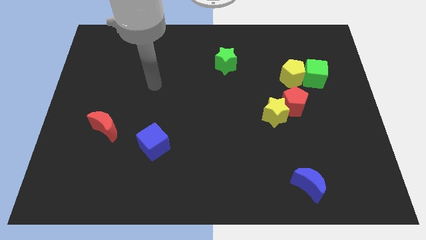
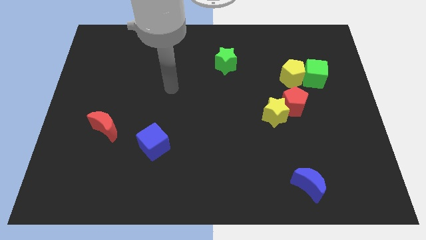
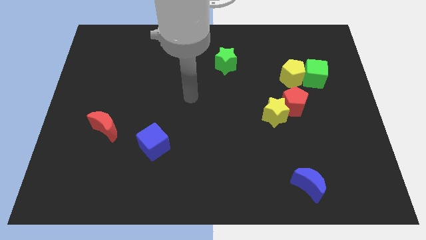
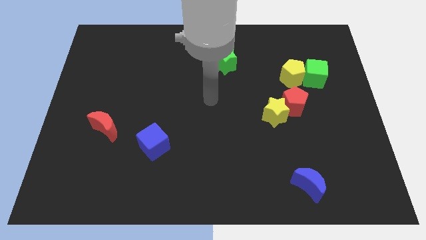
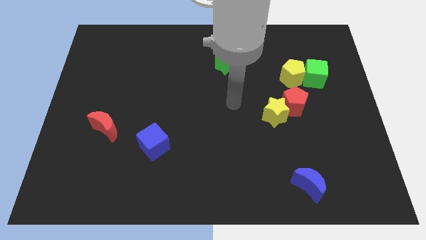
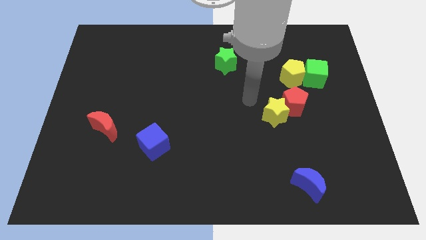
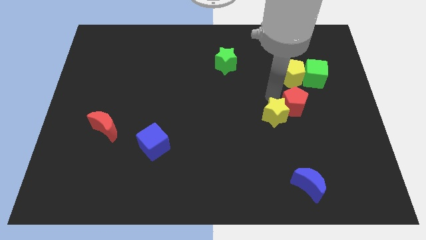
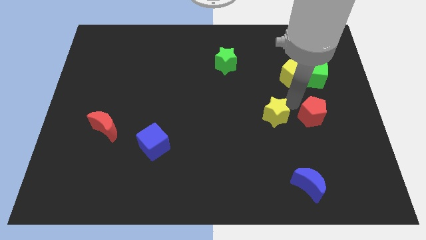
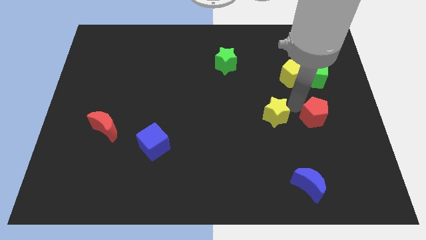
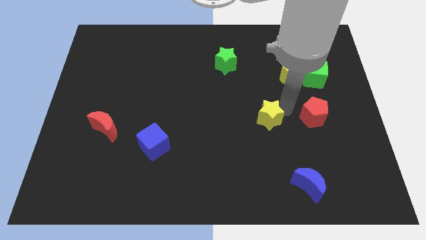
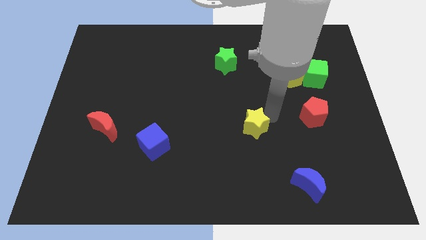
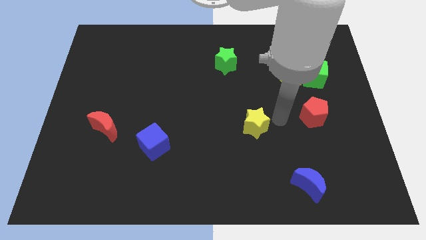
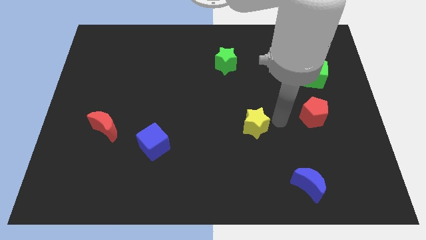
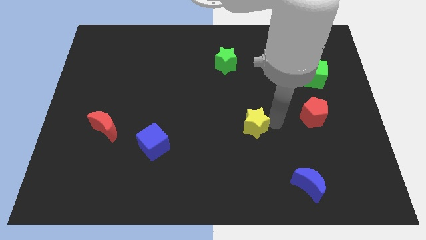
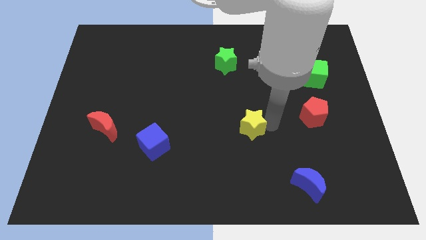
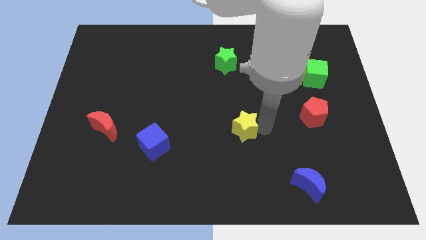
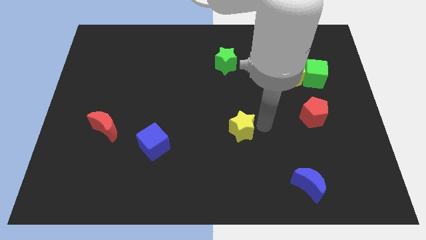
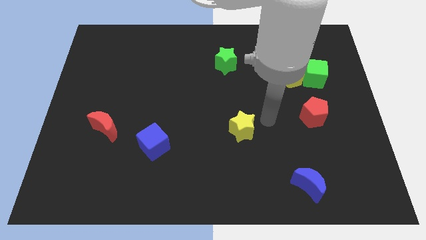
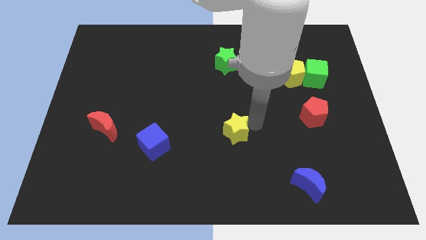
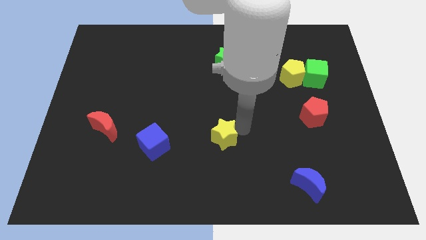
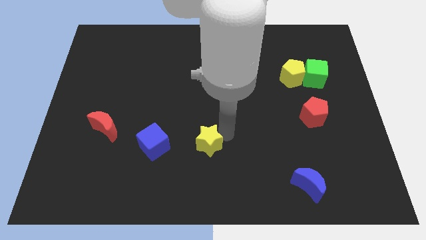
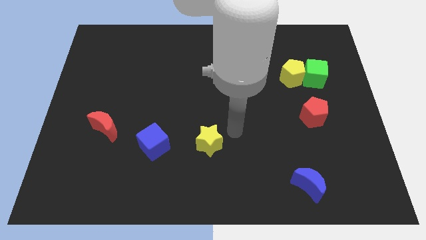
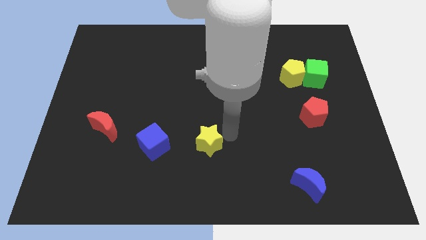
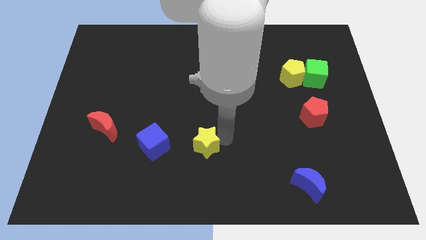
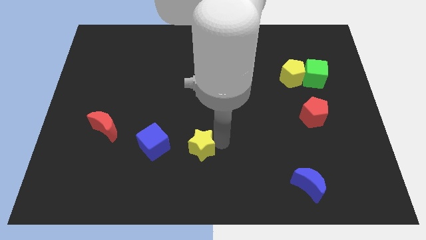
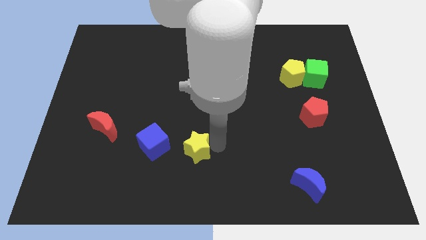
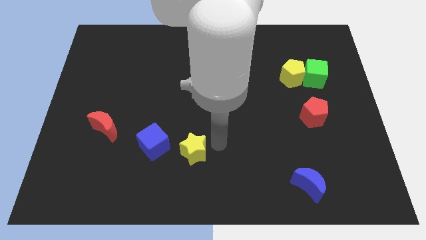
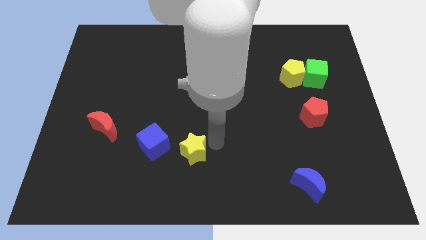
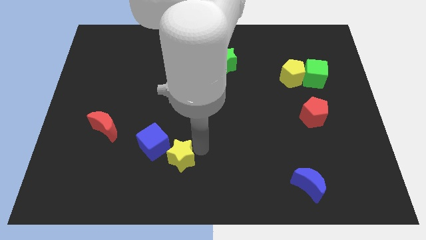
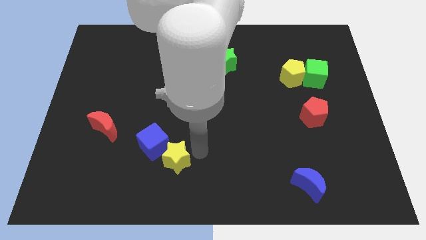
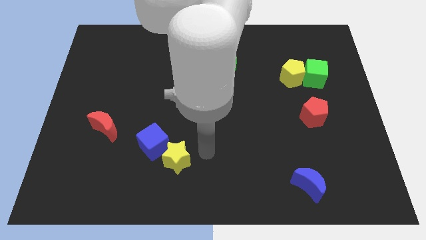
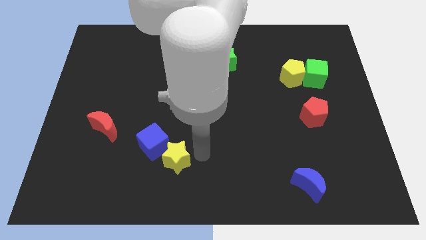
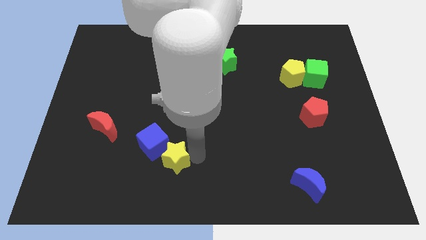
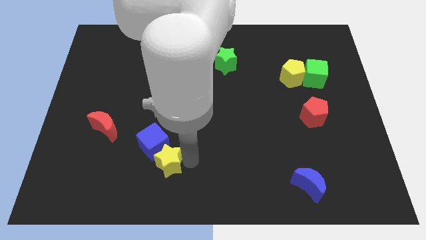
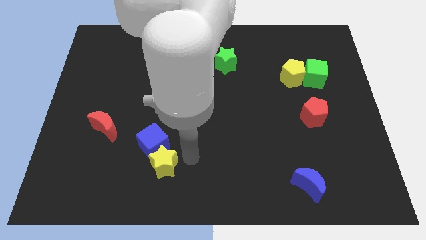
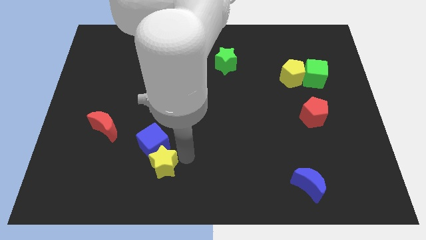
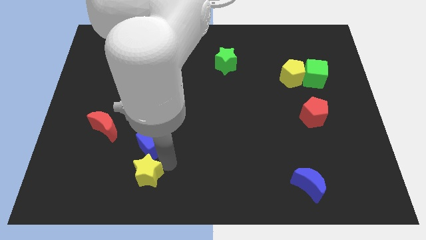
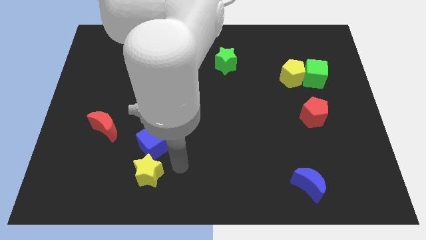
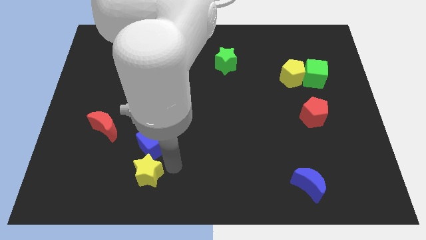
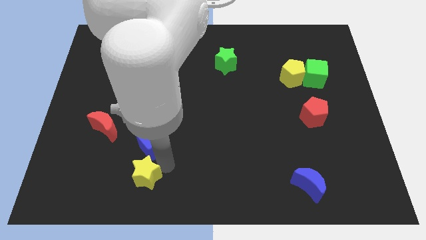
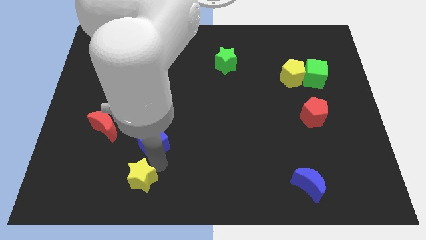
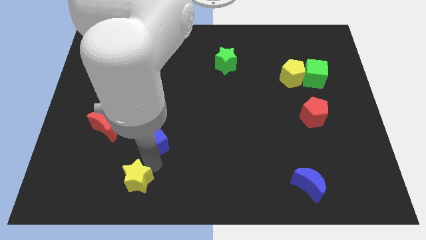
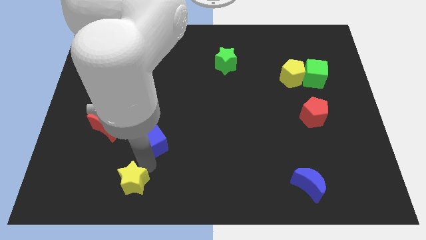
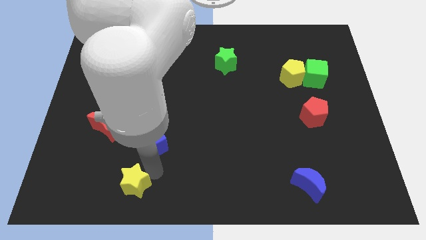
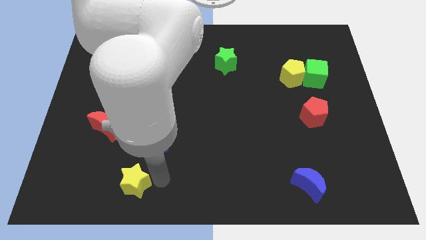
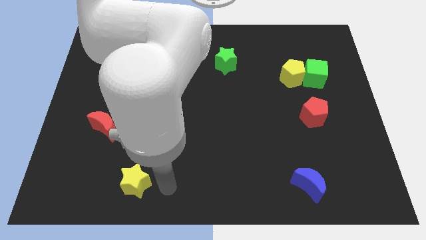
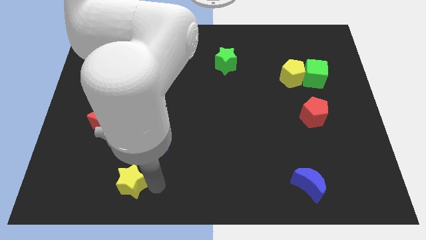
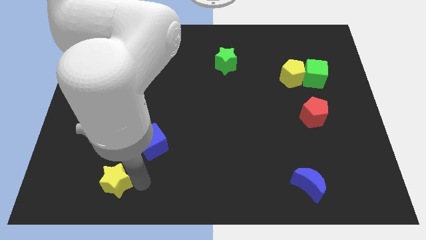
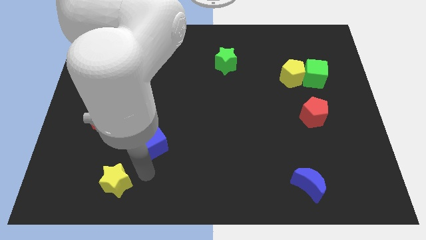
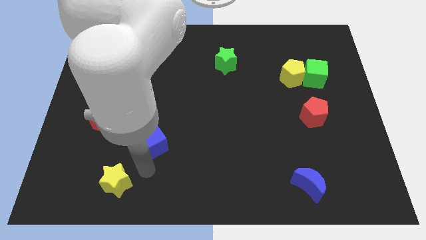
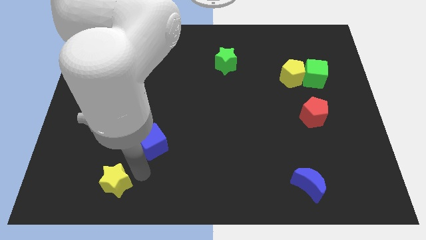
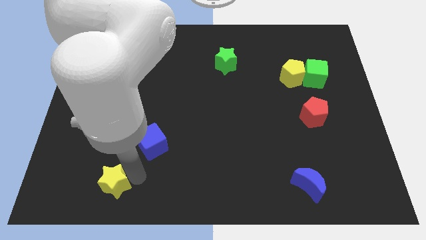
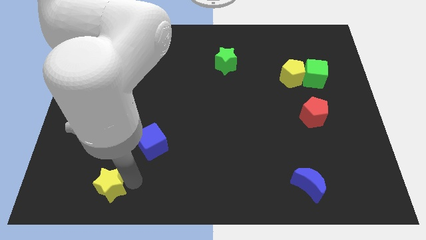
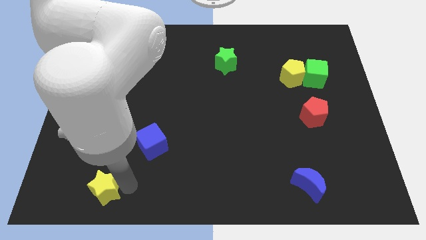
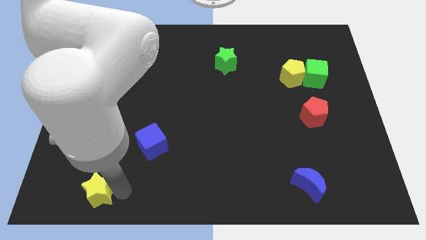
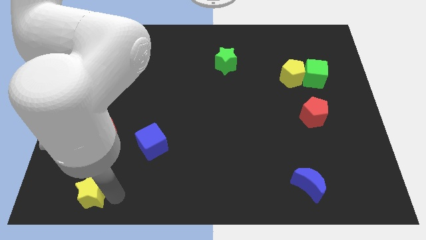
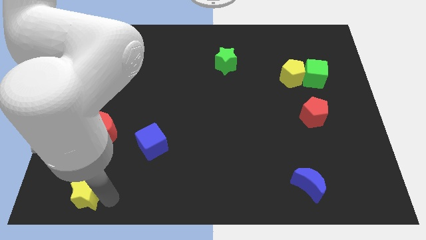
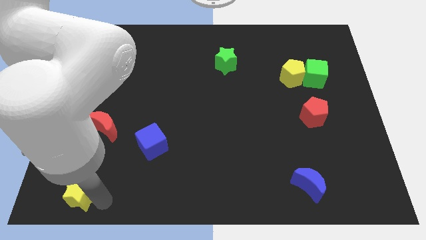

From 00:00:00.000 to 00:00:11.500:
move the yellow star to the bottom left

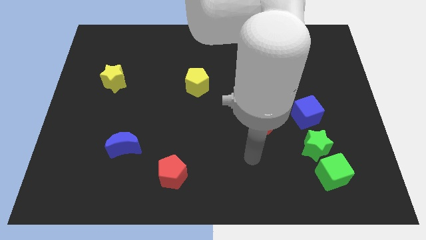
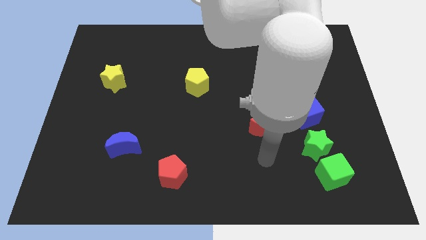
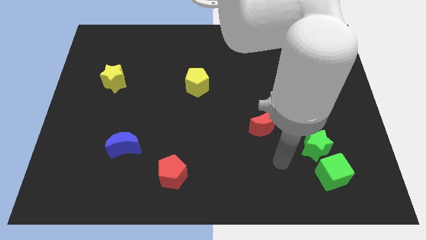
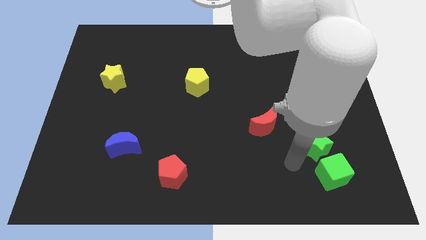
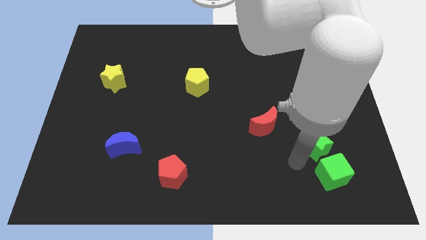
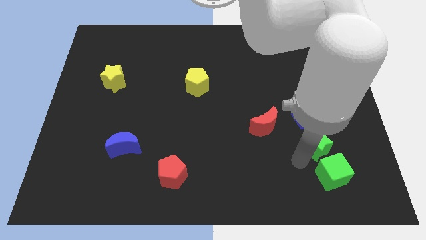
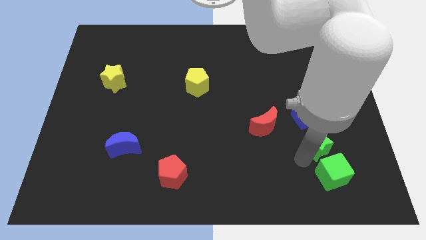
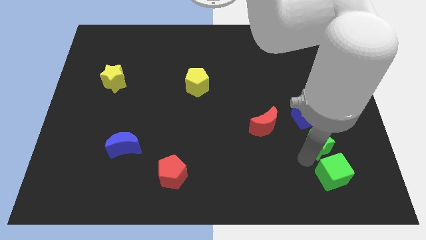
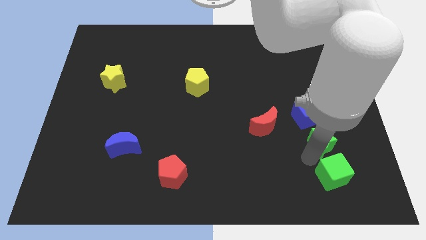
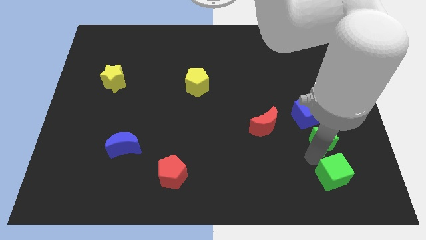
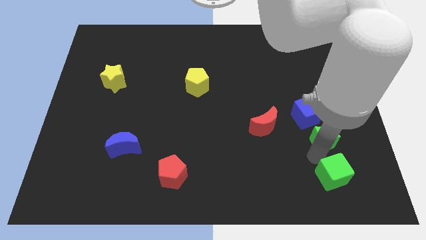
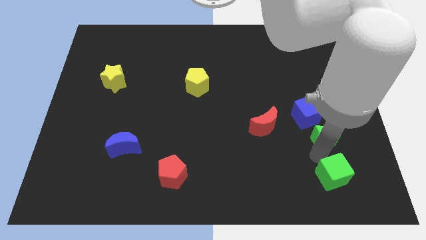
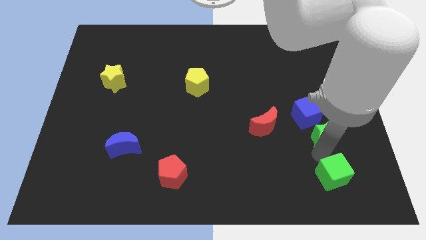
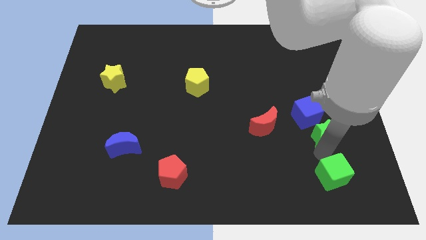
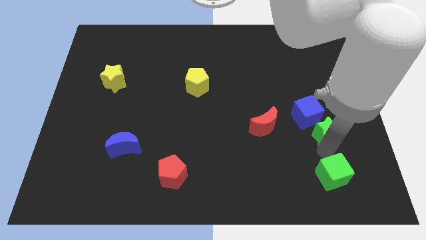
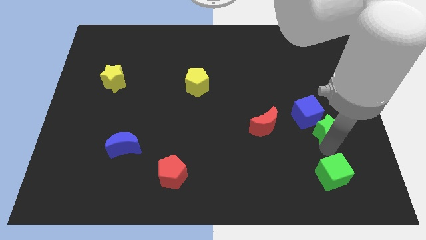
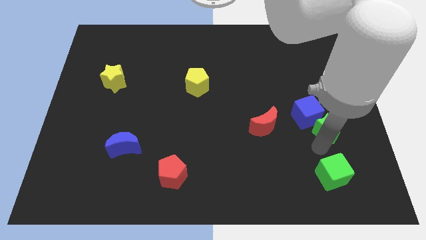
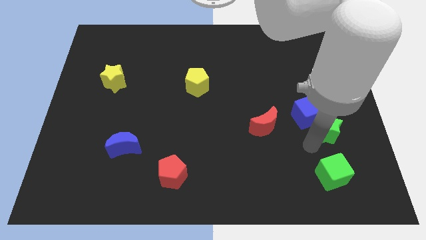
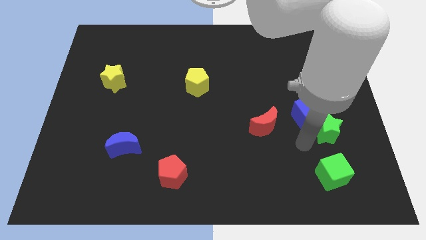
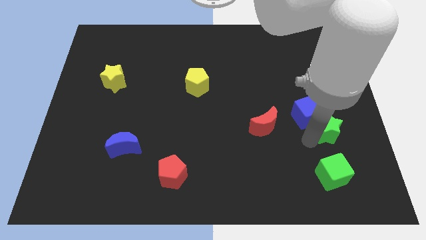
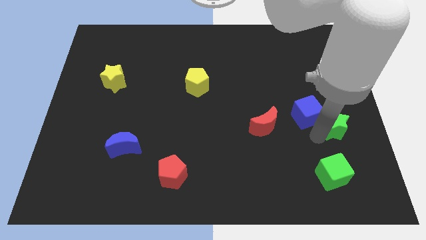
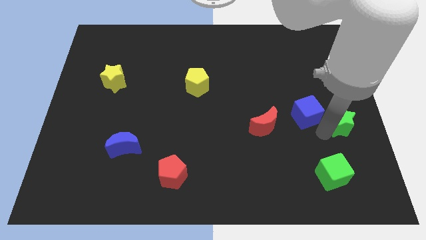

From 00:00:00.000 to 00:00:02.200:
push the green star to the right side of the board
